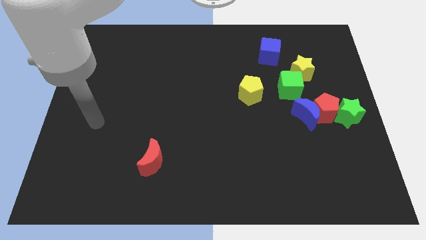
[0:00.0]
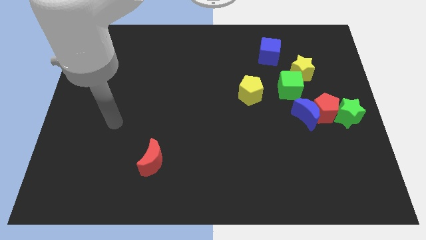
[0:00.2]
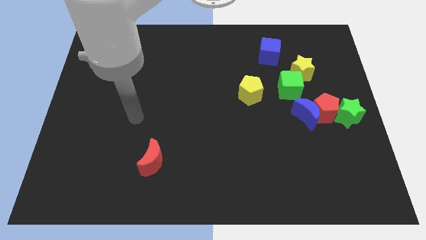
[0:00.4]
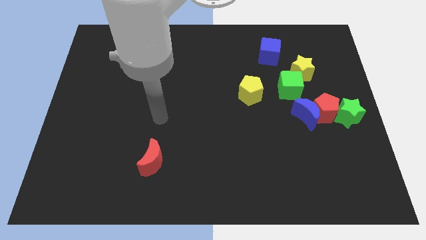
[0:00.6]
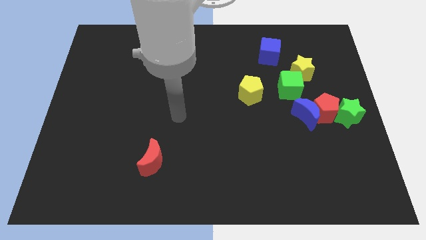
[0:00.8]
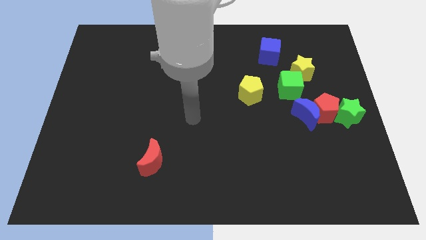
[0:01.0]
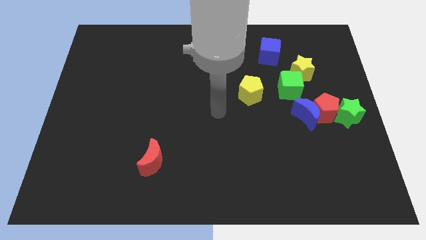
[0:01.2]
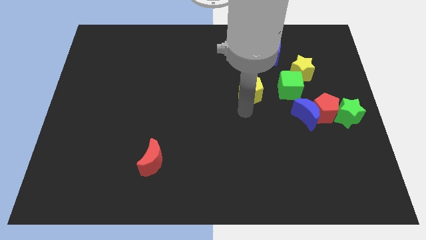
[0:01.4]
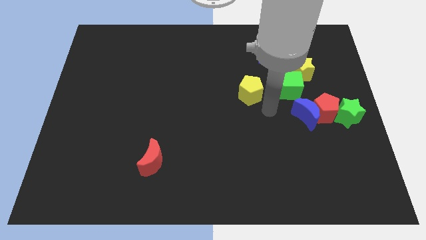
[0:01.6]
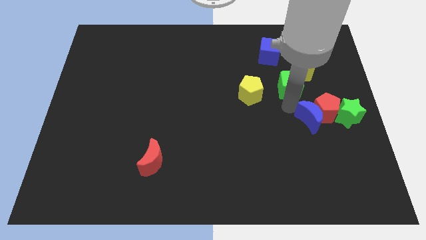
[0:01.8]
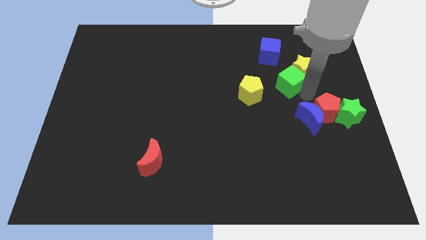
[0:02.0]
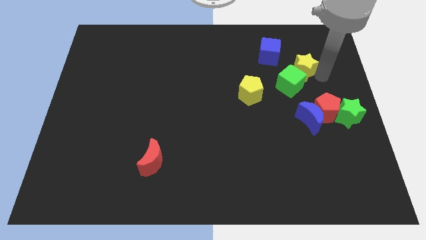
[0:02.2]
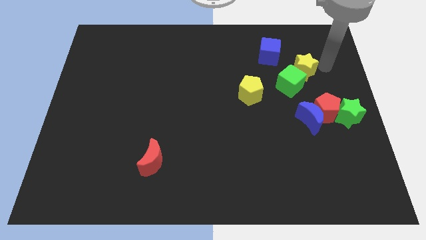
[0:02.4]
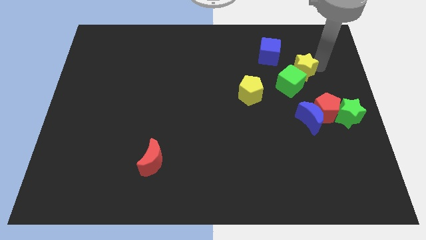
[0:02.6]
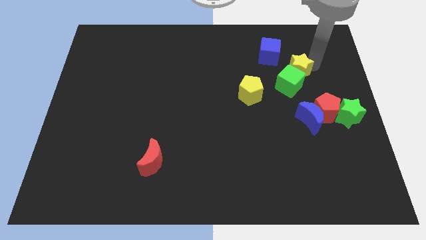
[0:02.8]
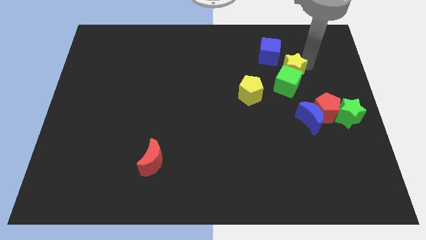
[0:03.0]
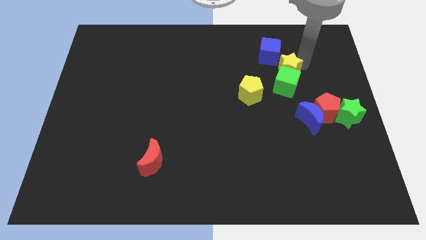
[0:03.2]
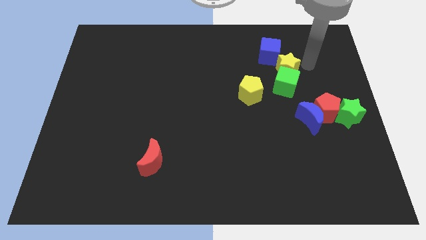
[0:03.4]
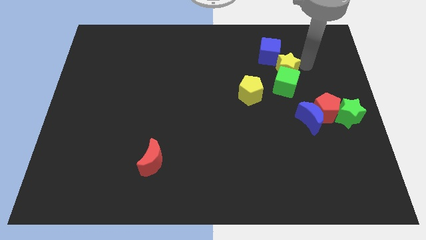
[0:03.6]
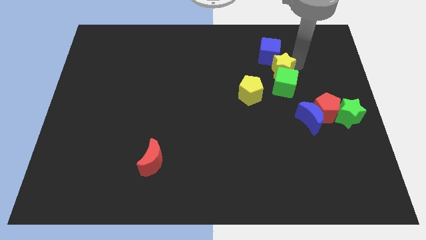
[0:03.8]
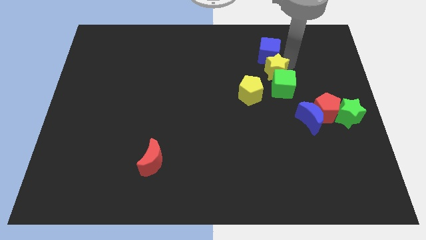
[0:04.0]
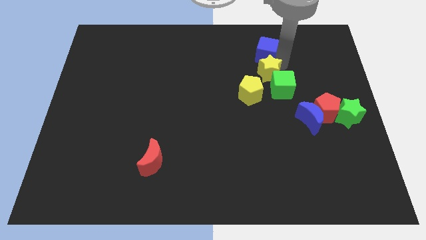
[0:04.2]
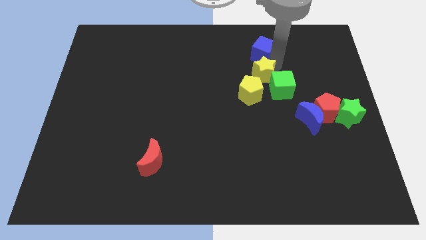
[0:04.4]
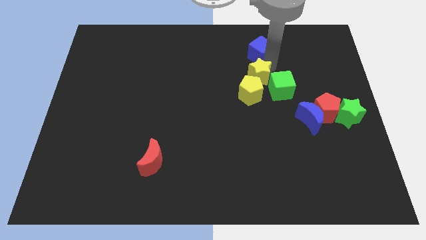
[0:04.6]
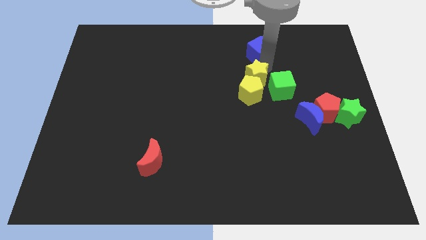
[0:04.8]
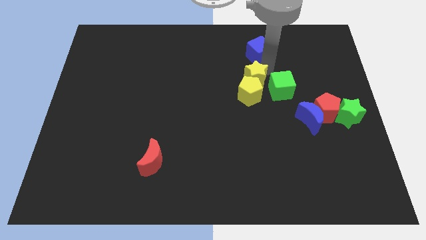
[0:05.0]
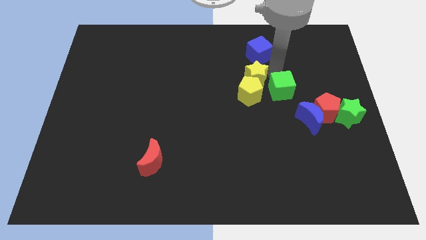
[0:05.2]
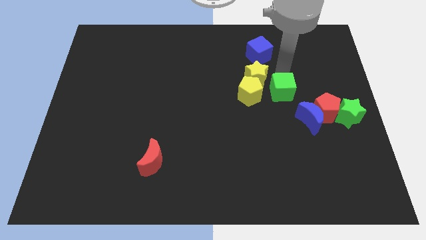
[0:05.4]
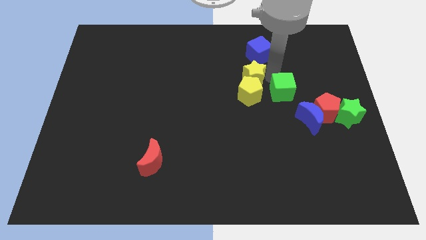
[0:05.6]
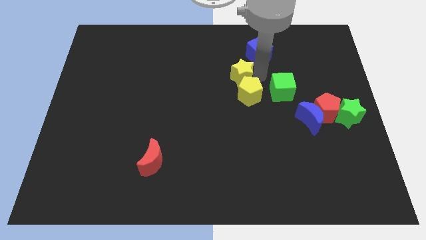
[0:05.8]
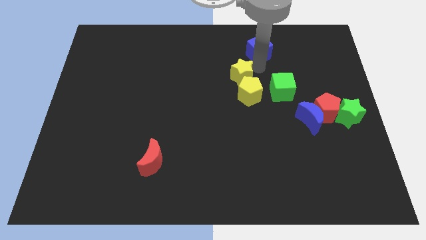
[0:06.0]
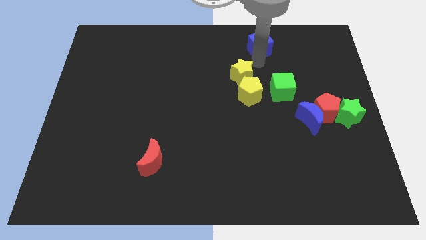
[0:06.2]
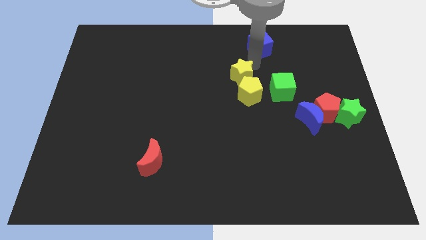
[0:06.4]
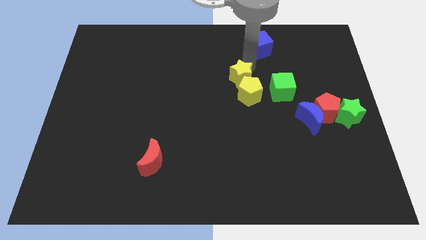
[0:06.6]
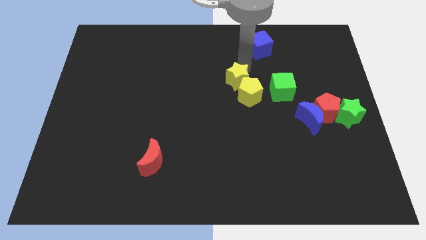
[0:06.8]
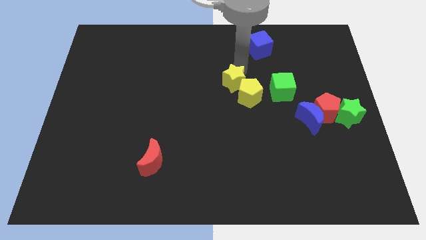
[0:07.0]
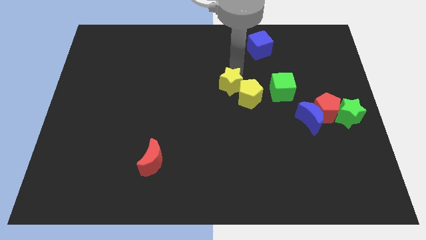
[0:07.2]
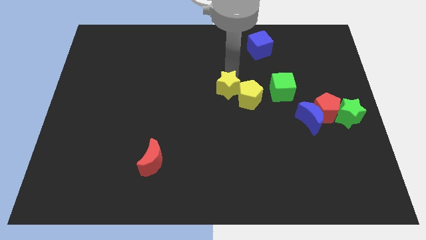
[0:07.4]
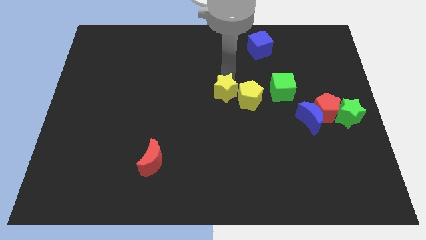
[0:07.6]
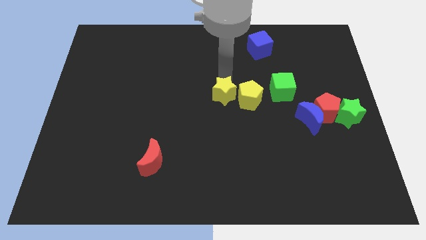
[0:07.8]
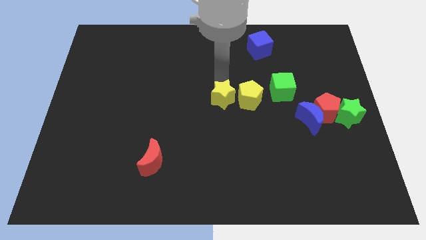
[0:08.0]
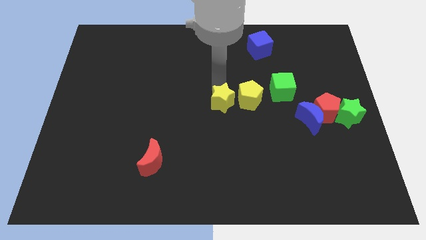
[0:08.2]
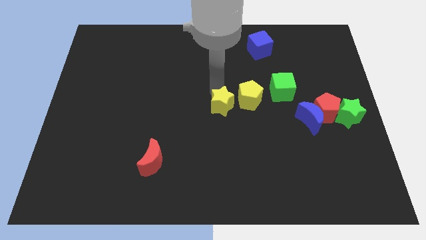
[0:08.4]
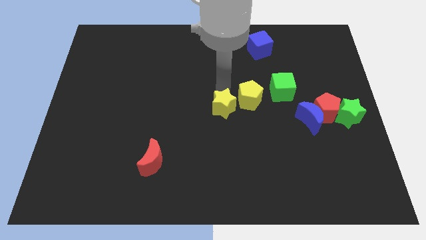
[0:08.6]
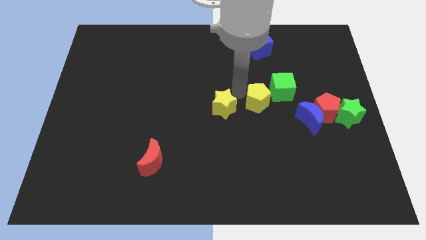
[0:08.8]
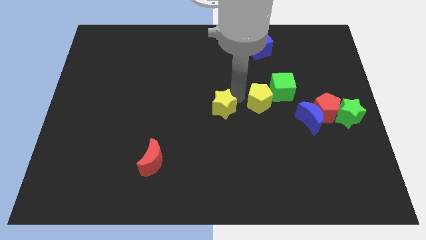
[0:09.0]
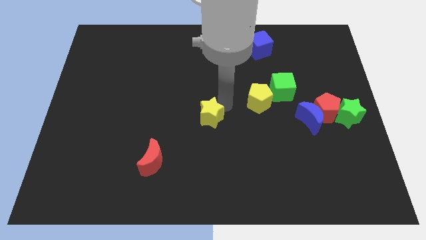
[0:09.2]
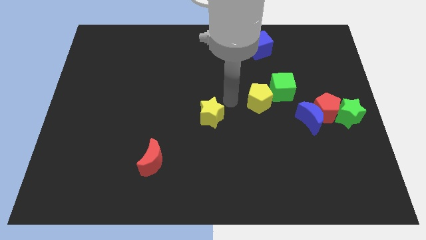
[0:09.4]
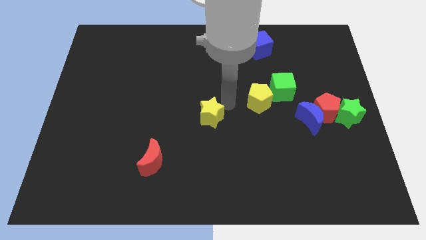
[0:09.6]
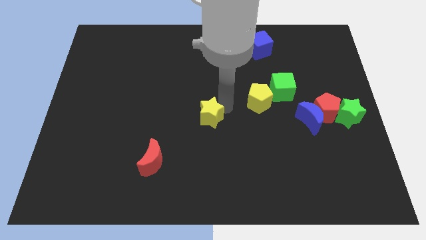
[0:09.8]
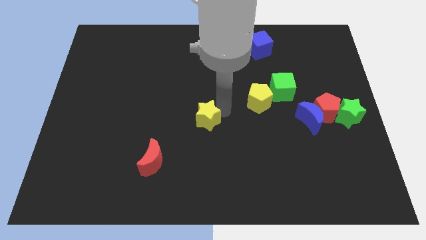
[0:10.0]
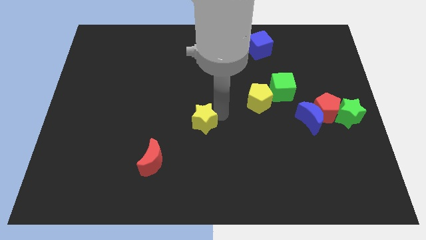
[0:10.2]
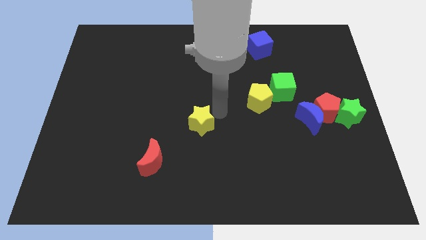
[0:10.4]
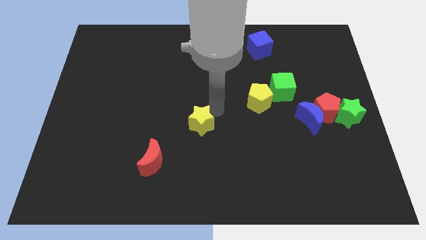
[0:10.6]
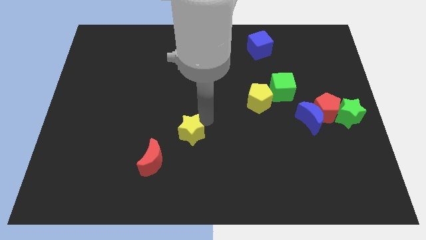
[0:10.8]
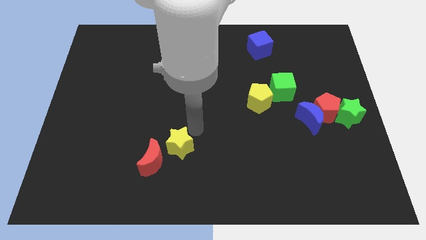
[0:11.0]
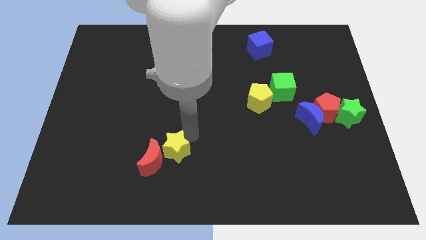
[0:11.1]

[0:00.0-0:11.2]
move the yellow star close to the red moon

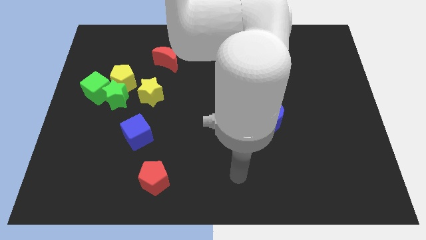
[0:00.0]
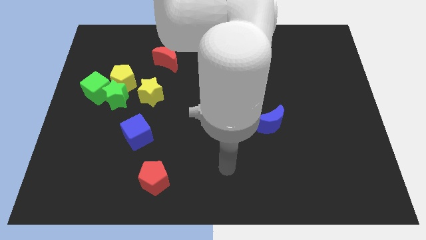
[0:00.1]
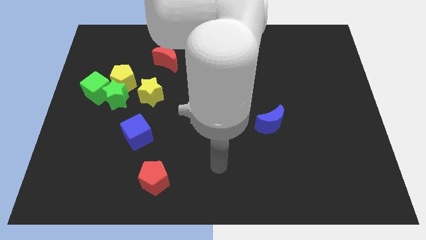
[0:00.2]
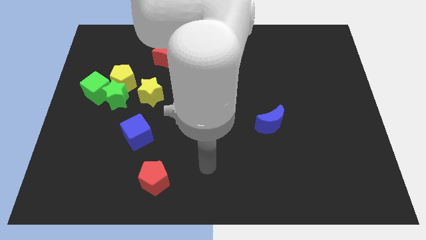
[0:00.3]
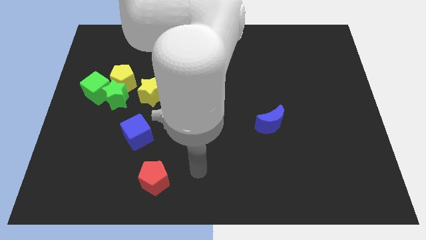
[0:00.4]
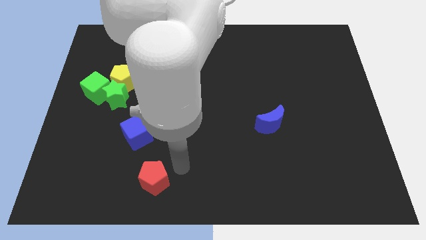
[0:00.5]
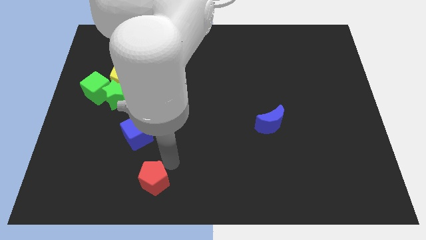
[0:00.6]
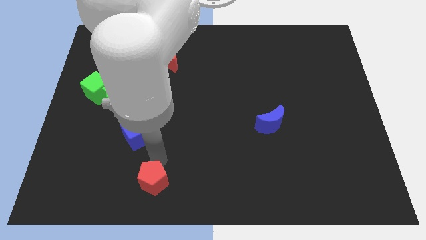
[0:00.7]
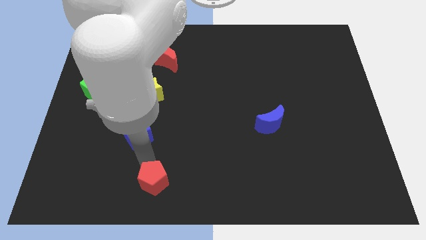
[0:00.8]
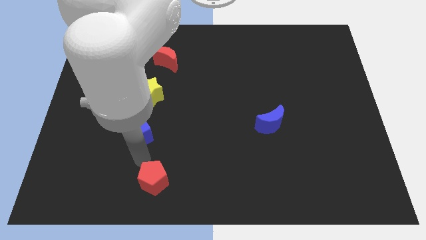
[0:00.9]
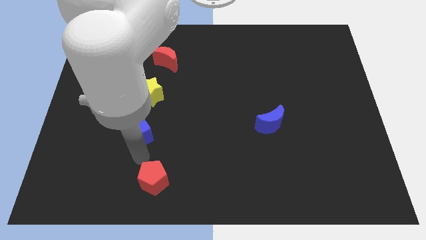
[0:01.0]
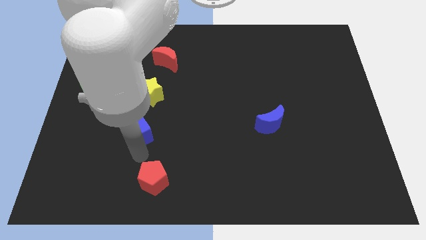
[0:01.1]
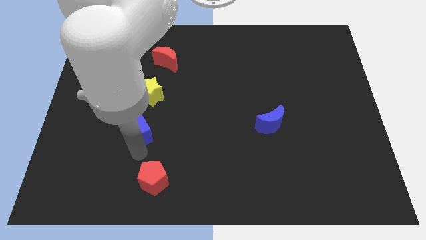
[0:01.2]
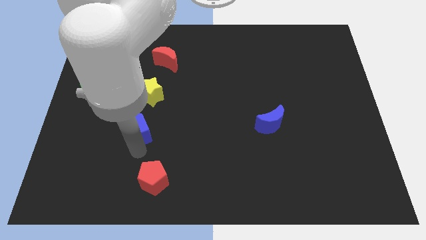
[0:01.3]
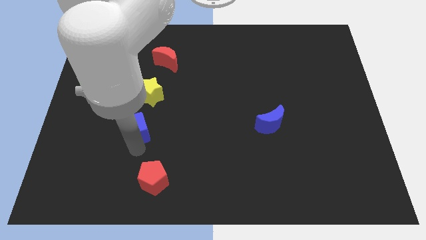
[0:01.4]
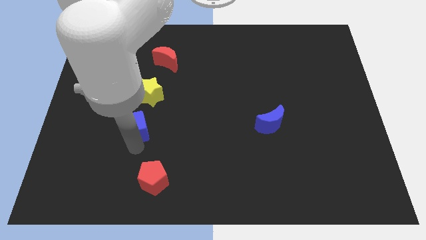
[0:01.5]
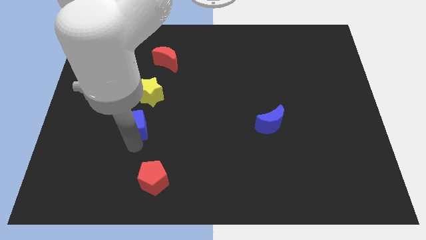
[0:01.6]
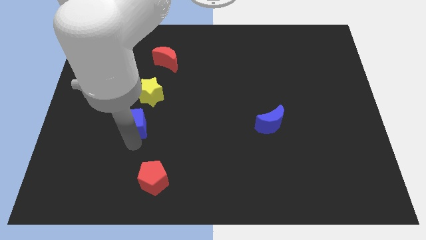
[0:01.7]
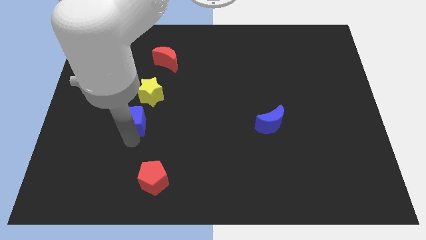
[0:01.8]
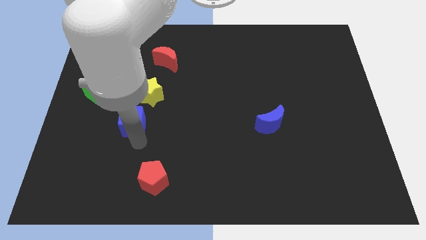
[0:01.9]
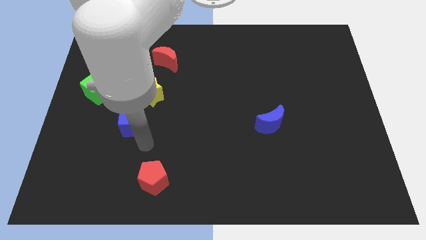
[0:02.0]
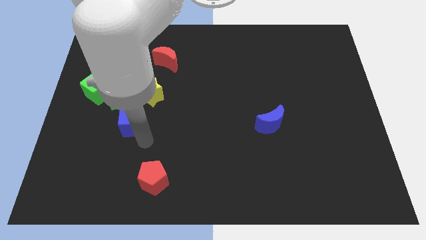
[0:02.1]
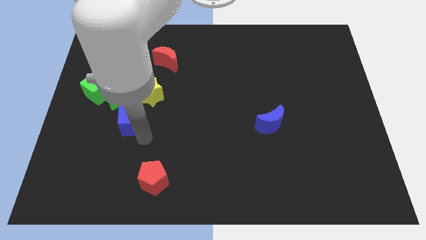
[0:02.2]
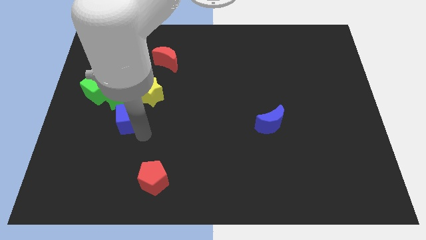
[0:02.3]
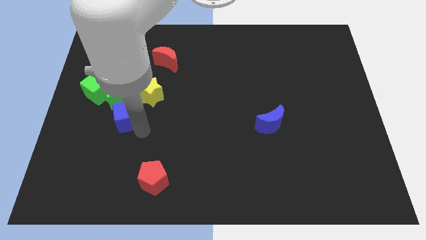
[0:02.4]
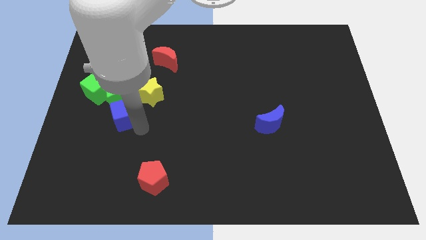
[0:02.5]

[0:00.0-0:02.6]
slide the blue cube close to the green star
